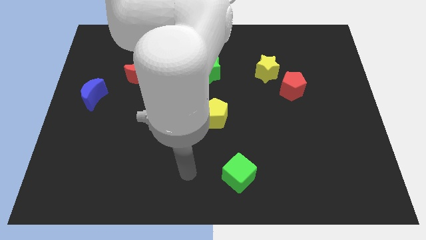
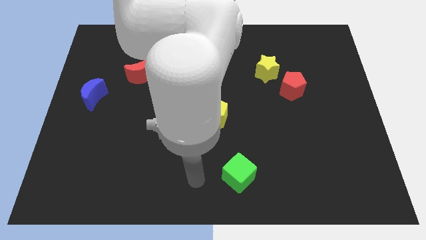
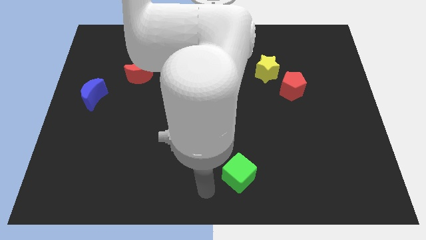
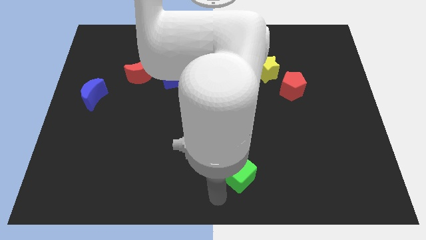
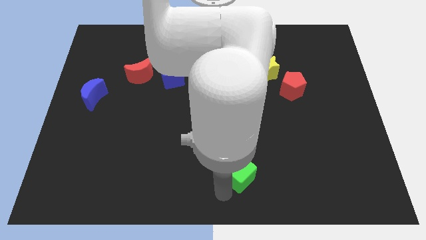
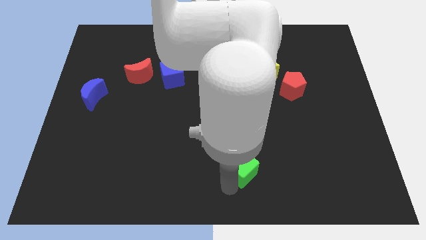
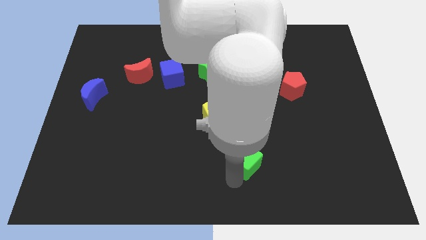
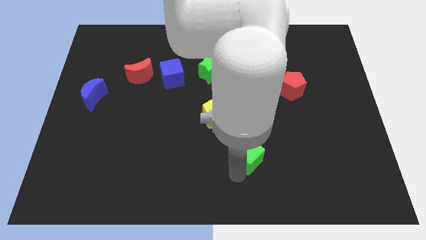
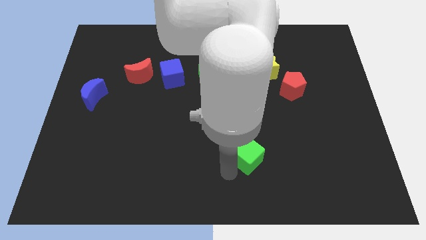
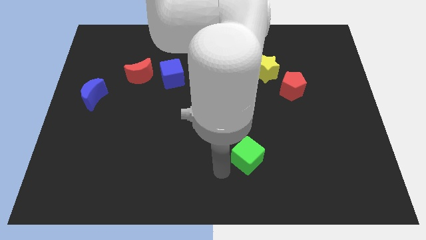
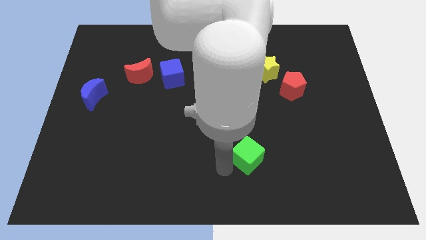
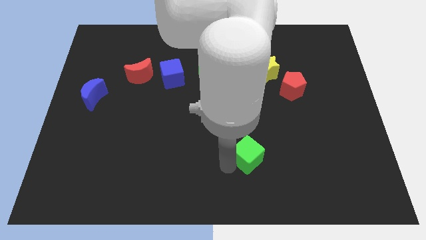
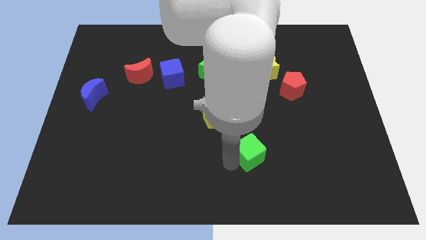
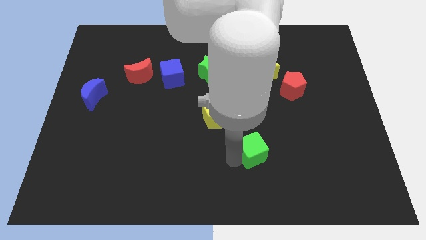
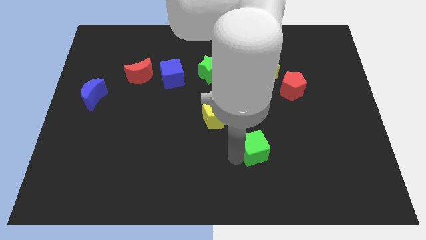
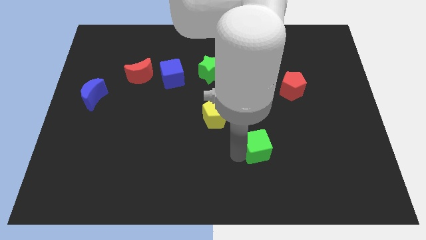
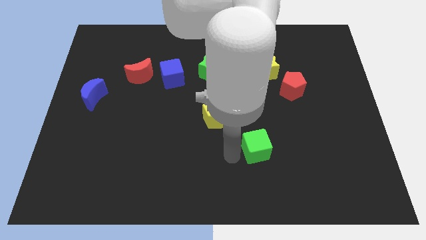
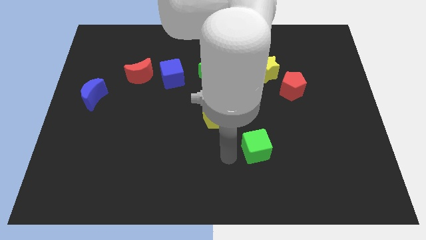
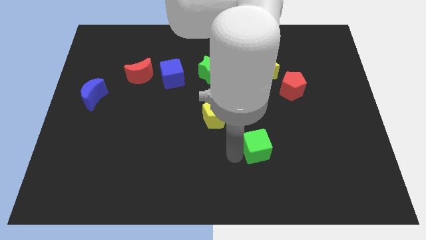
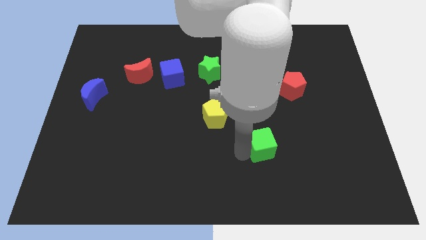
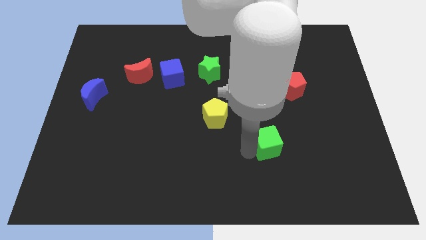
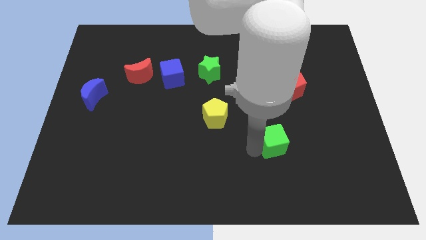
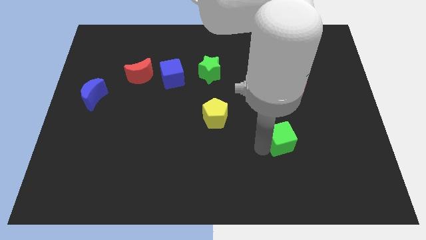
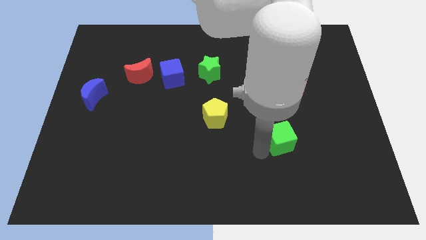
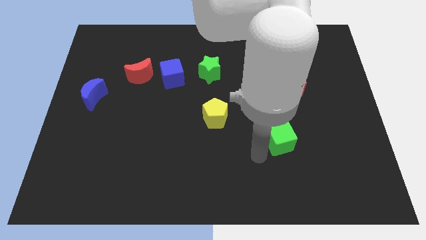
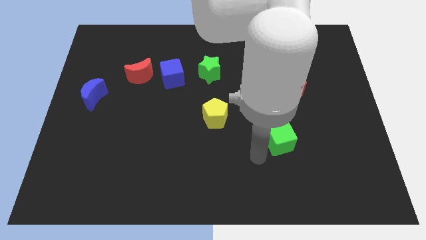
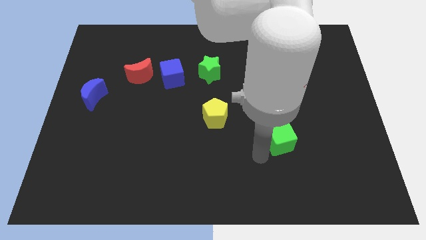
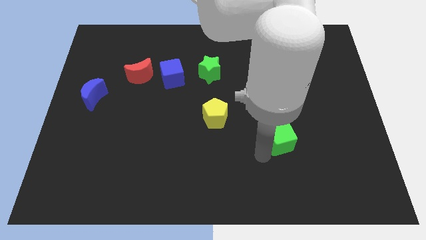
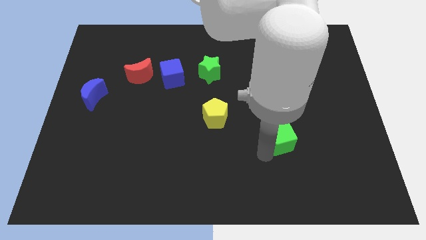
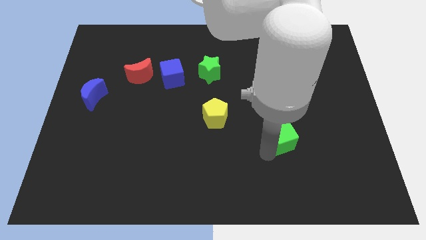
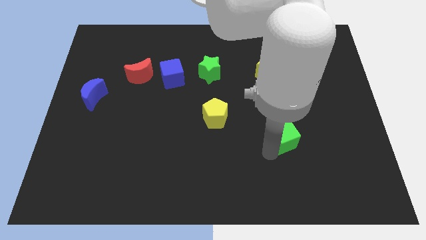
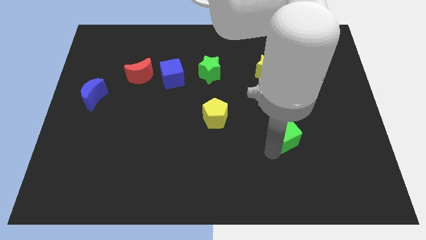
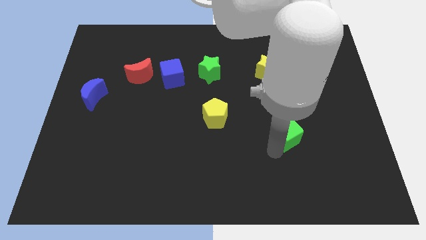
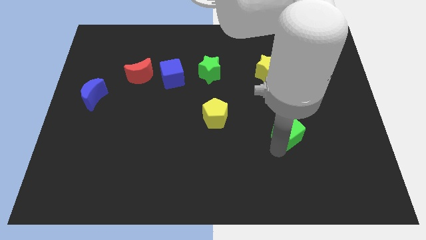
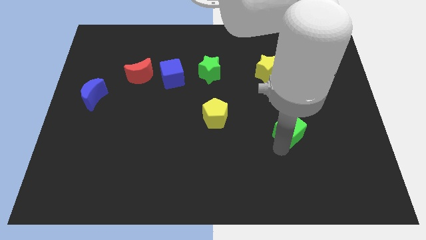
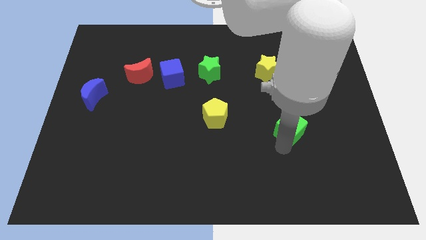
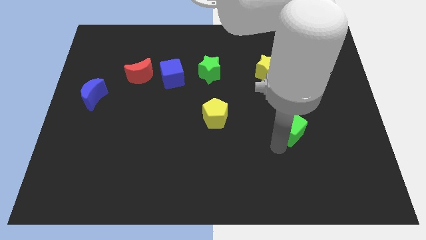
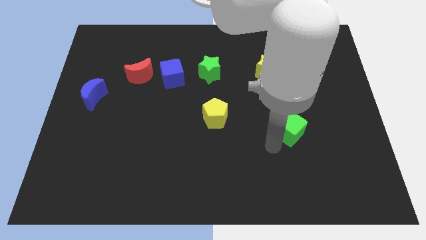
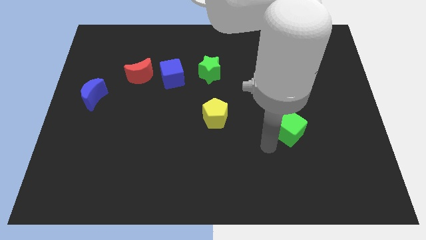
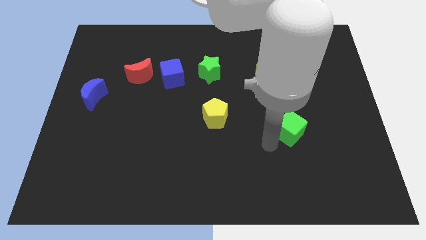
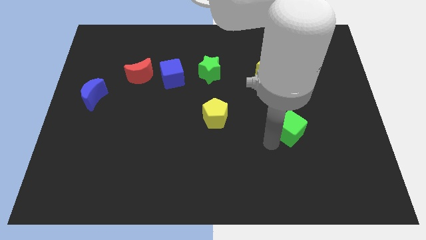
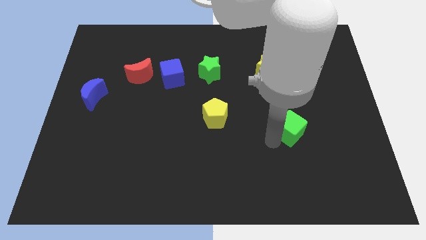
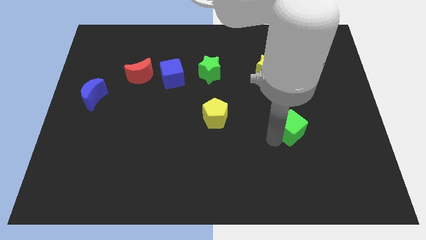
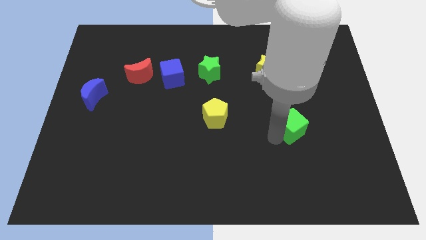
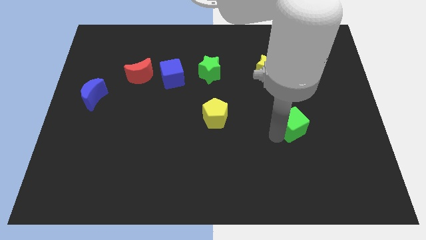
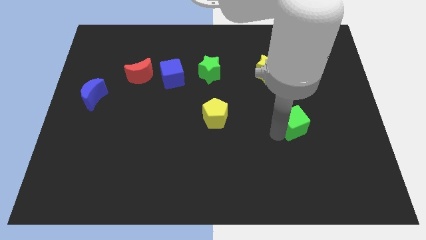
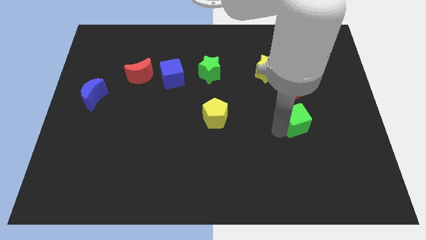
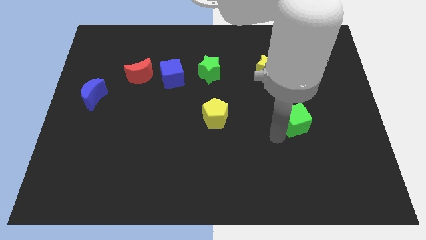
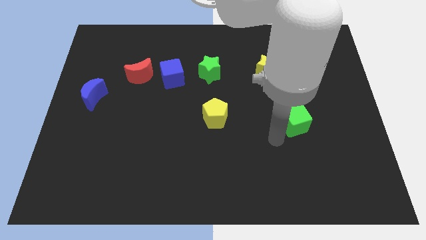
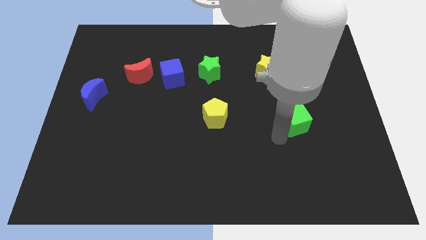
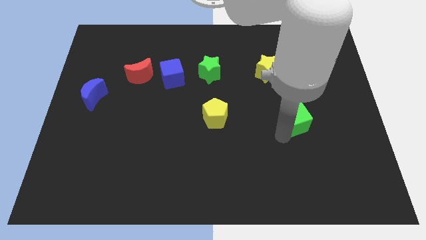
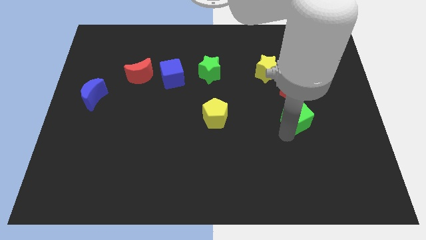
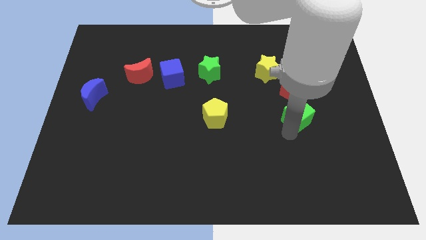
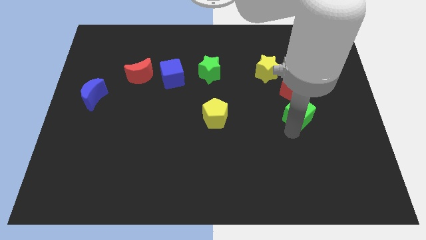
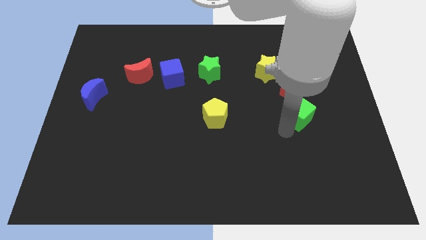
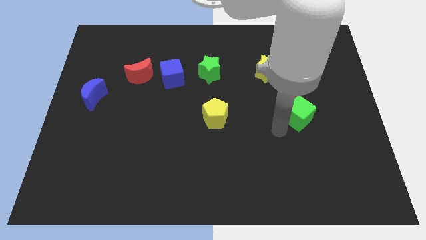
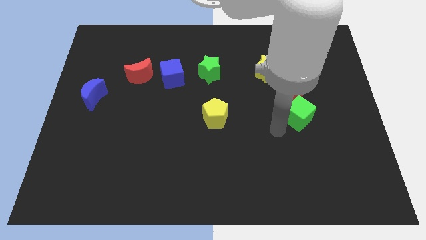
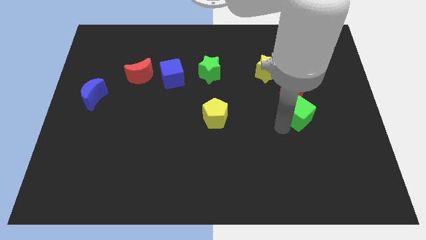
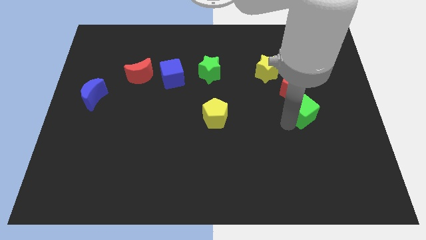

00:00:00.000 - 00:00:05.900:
push the green cube diagonally down and to the right of the red pentagon

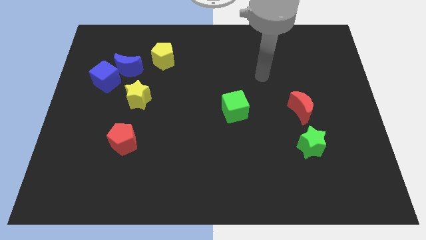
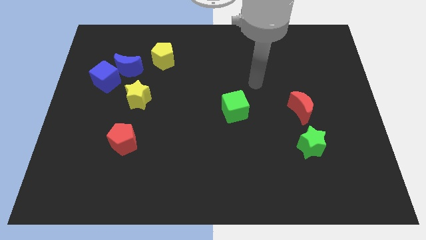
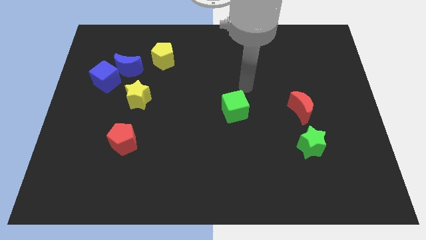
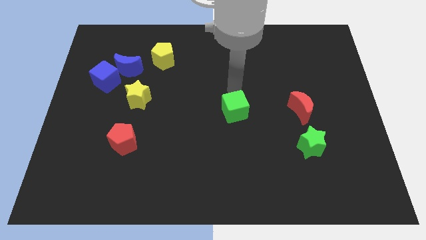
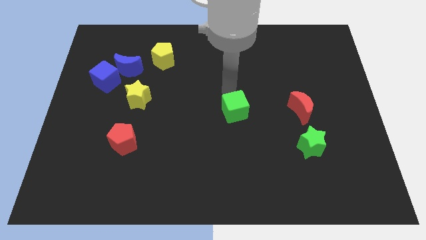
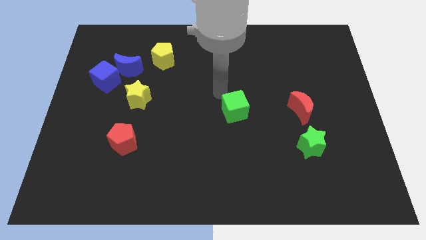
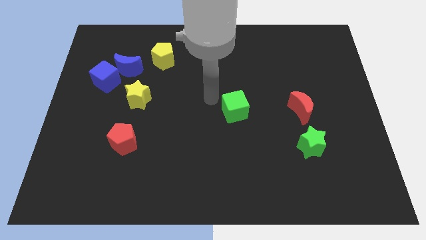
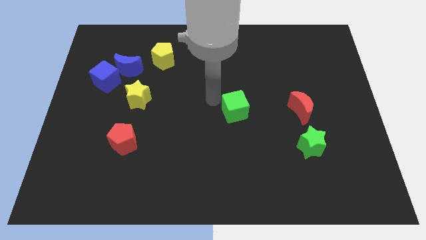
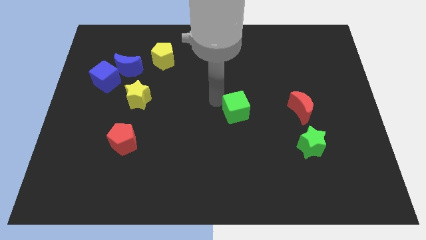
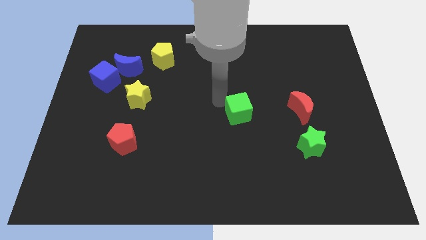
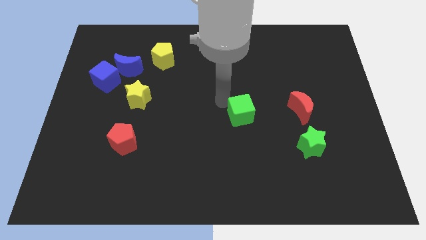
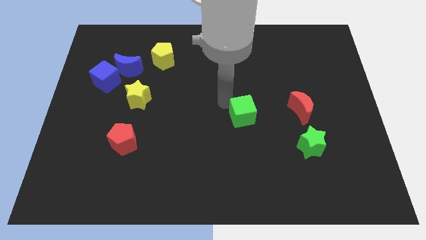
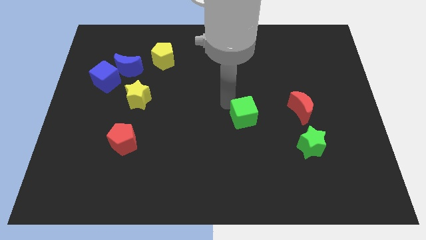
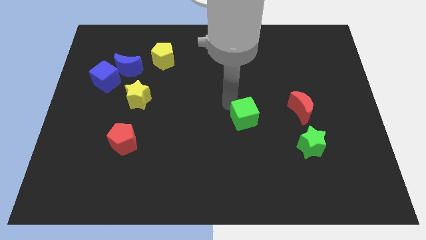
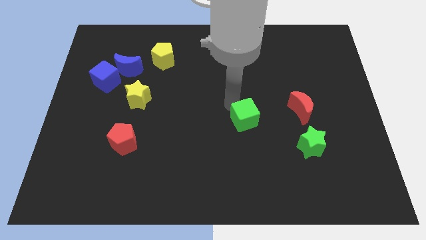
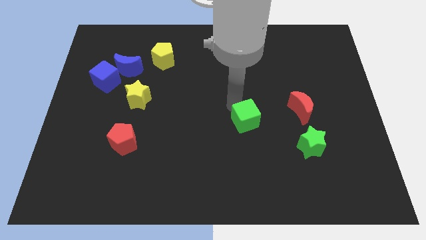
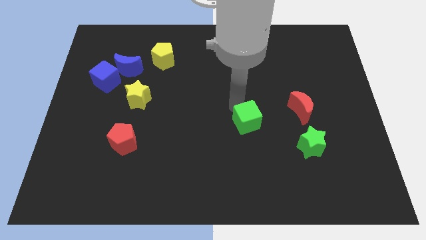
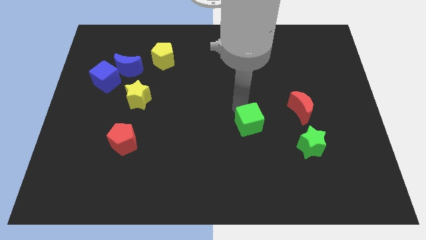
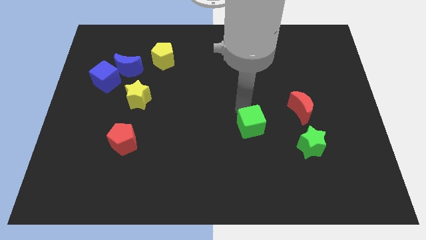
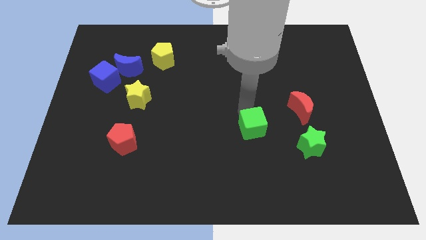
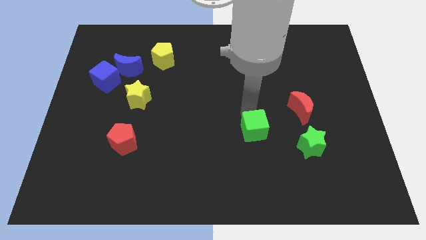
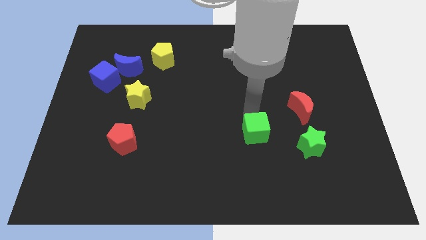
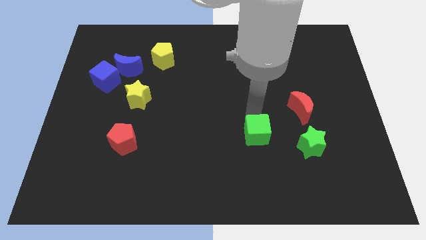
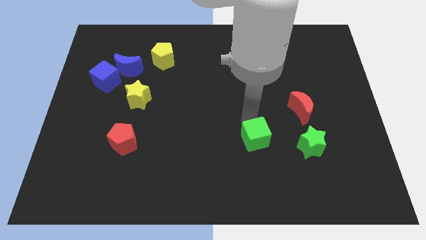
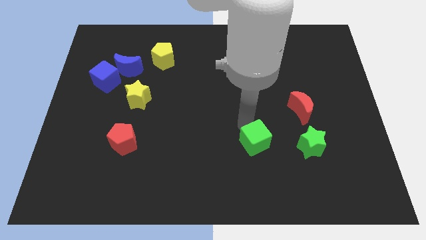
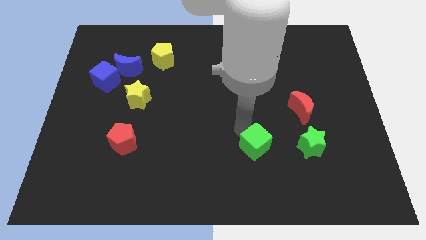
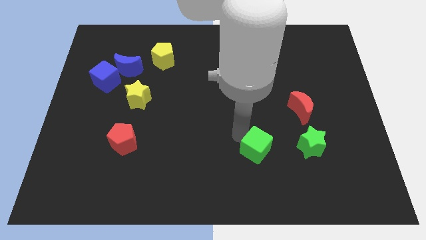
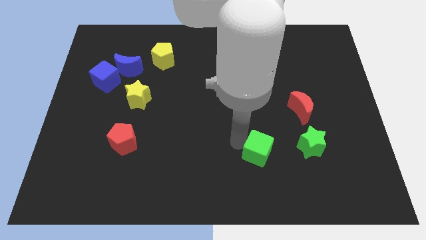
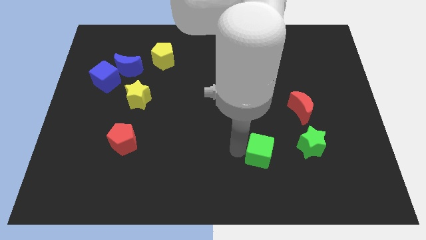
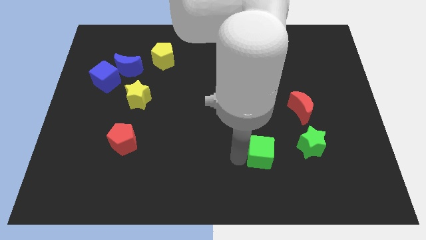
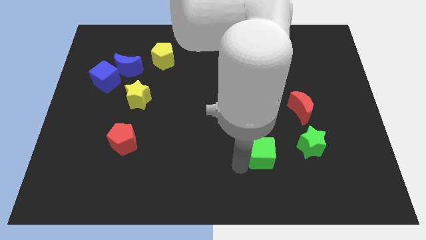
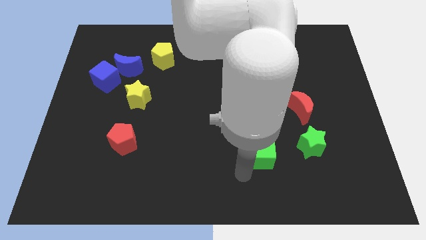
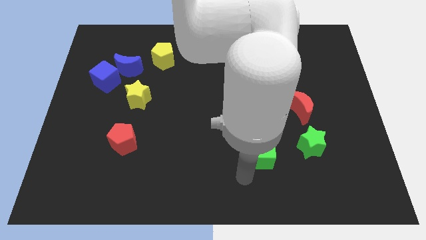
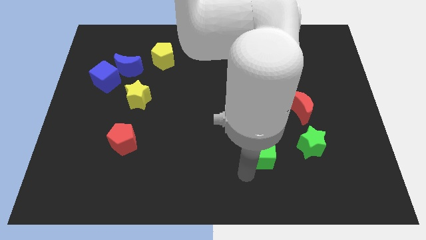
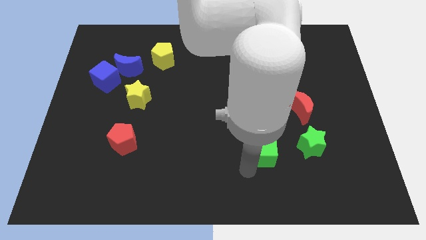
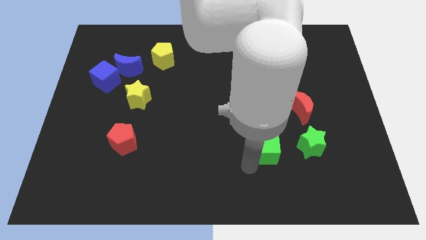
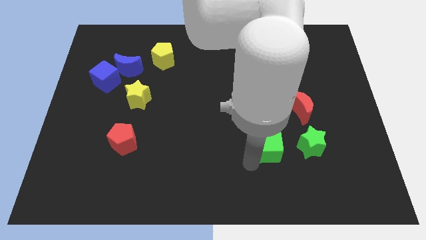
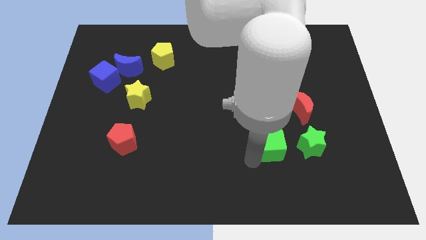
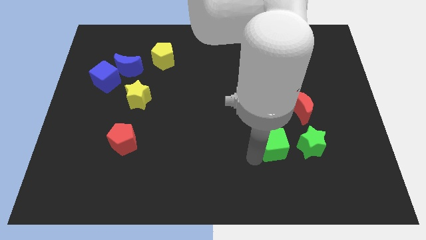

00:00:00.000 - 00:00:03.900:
push the green cube to the bottom left side of the red moon
